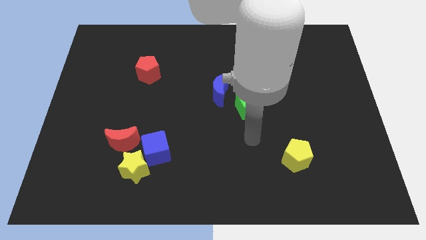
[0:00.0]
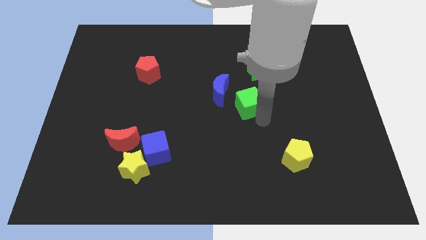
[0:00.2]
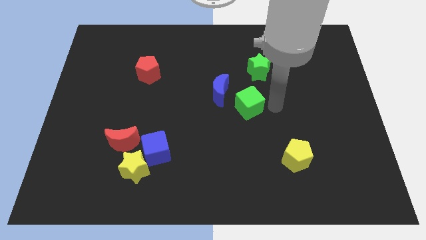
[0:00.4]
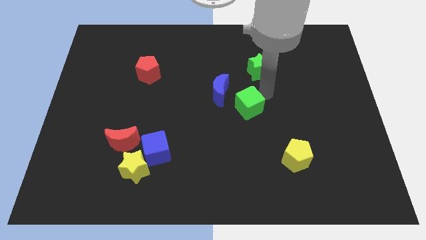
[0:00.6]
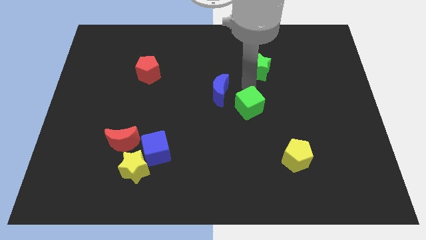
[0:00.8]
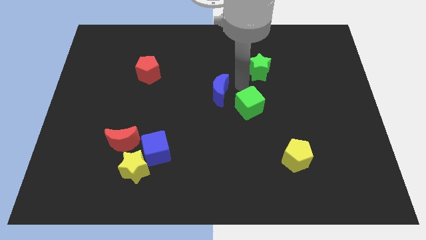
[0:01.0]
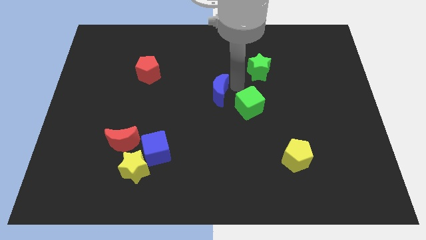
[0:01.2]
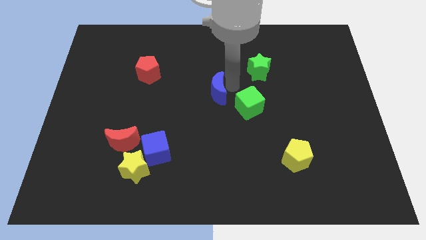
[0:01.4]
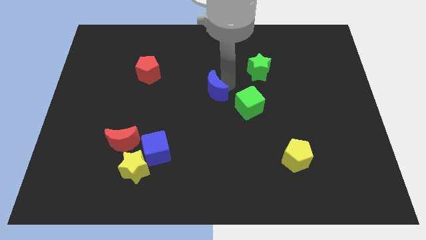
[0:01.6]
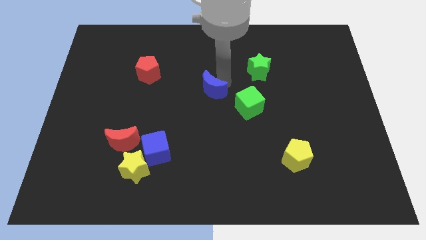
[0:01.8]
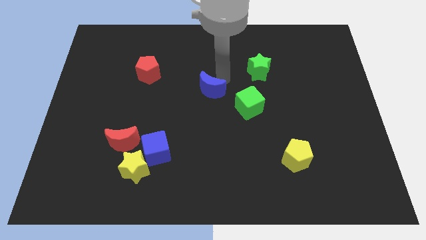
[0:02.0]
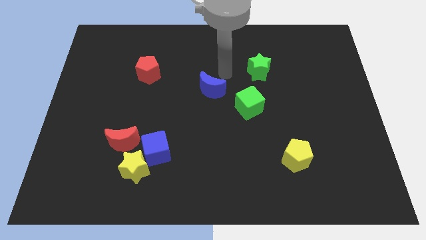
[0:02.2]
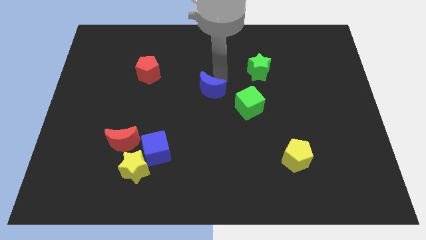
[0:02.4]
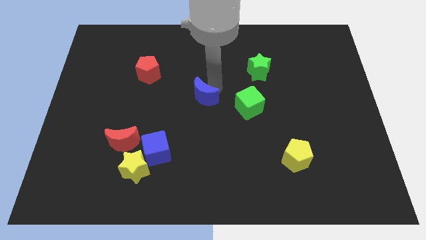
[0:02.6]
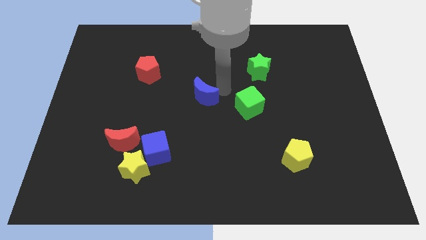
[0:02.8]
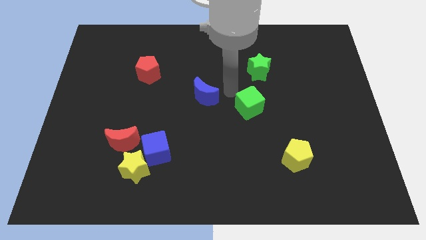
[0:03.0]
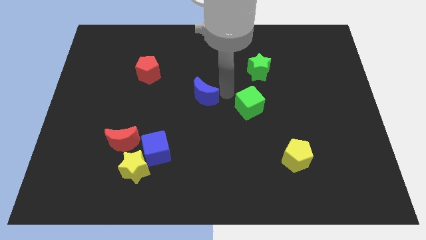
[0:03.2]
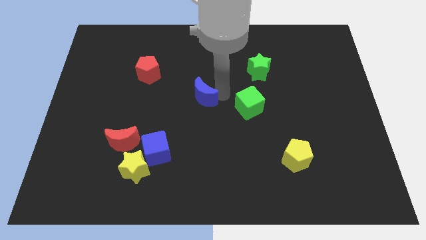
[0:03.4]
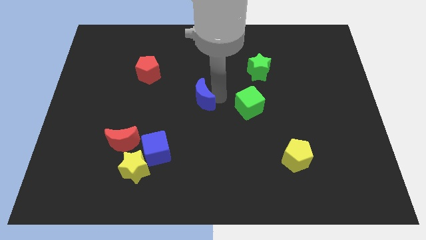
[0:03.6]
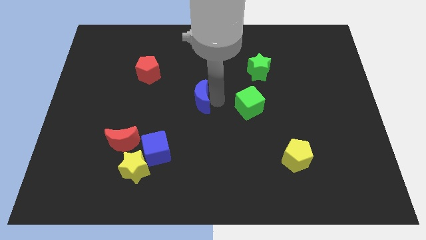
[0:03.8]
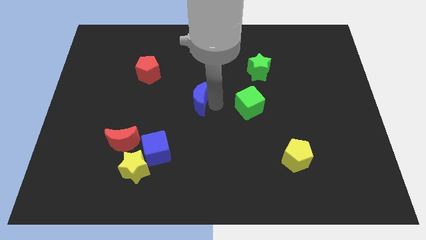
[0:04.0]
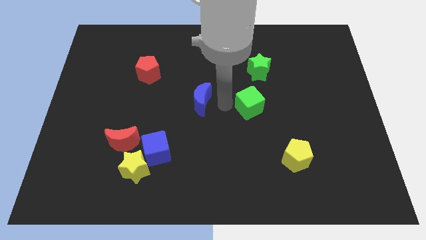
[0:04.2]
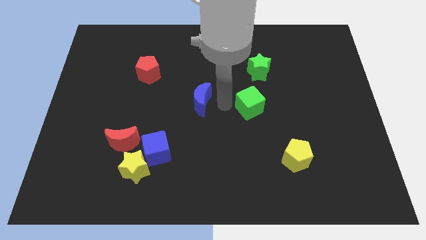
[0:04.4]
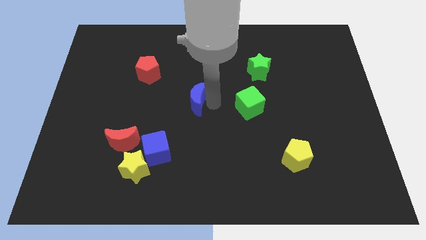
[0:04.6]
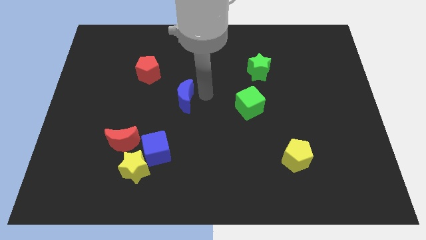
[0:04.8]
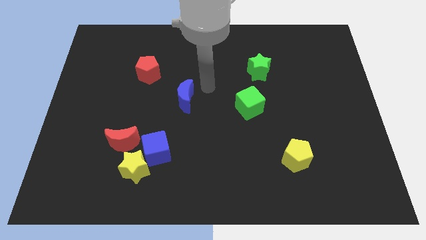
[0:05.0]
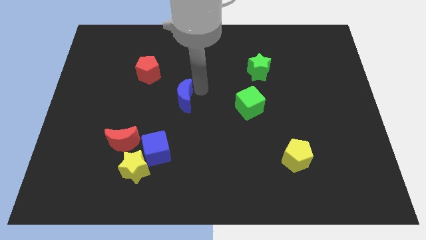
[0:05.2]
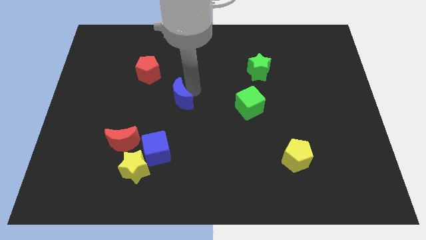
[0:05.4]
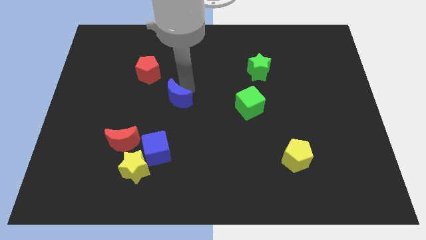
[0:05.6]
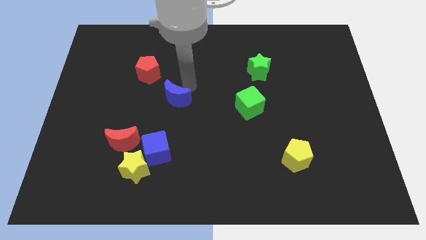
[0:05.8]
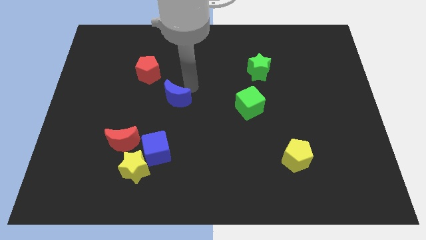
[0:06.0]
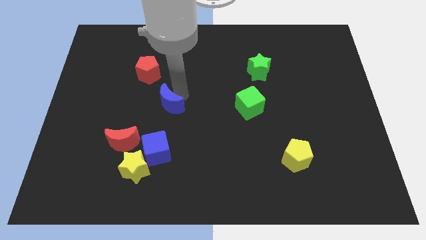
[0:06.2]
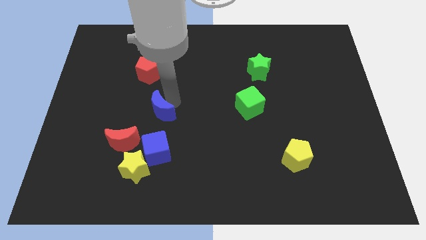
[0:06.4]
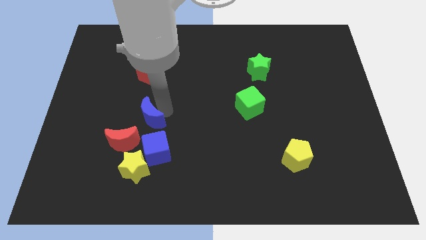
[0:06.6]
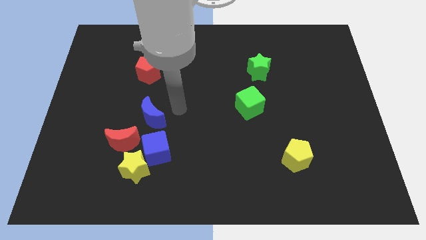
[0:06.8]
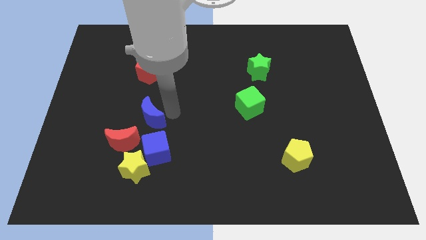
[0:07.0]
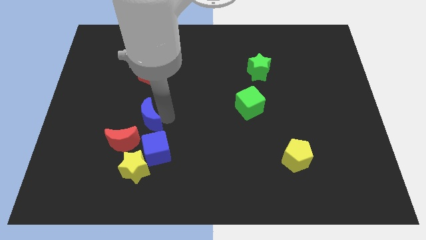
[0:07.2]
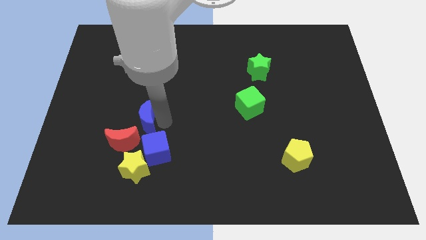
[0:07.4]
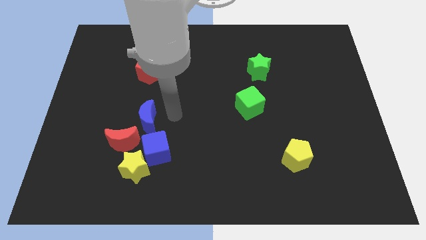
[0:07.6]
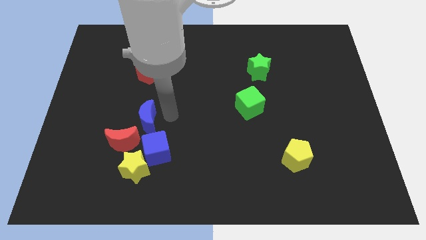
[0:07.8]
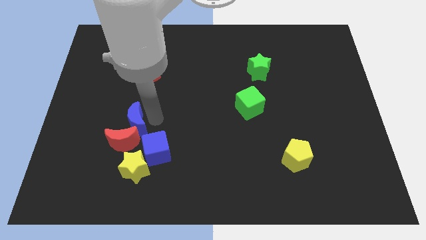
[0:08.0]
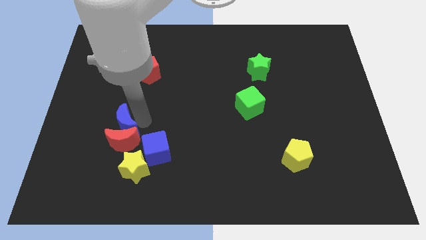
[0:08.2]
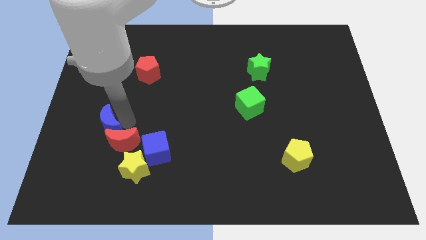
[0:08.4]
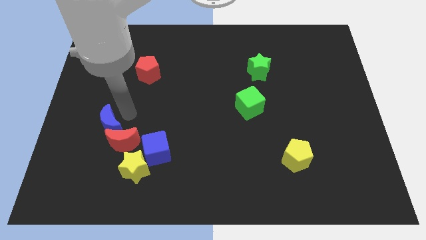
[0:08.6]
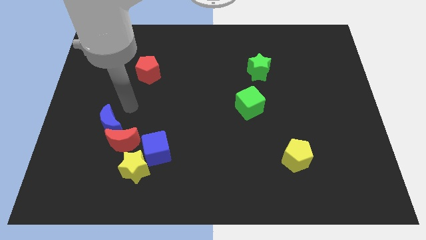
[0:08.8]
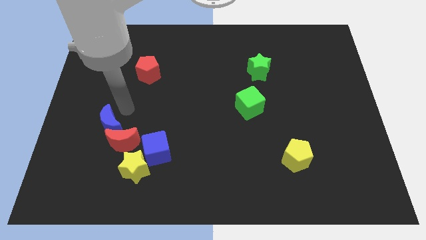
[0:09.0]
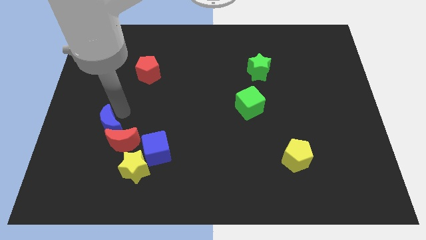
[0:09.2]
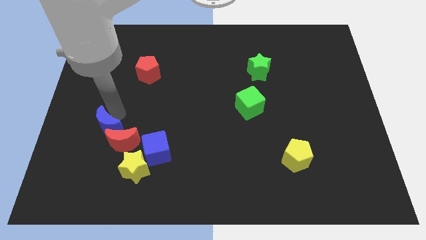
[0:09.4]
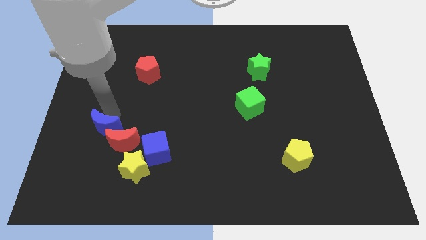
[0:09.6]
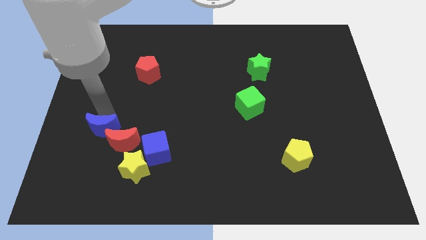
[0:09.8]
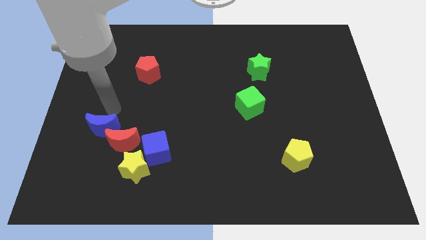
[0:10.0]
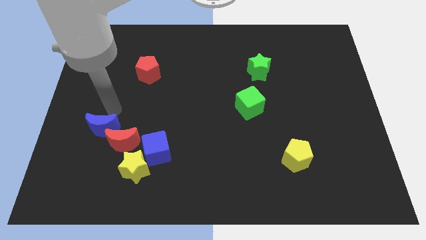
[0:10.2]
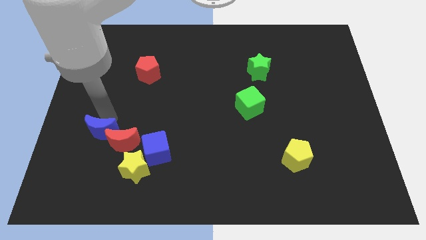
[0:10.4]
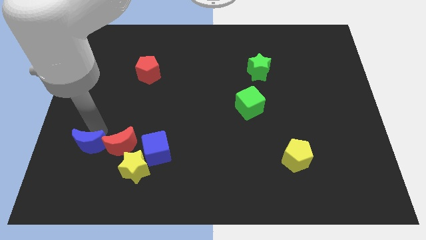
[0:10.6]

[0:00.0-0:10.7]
push the blue moon to the bottom left of the red moon

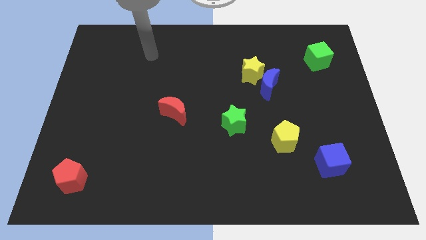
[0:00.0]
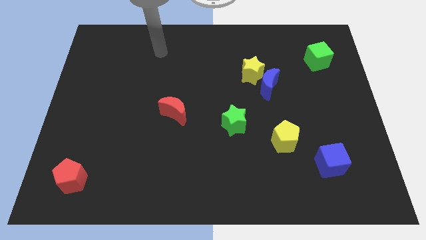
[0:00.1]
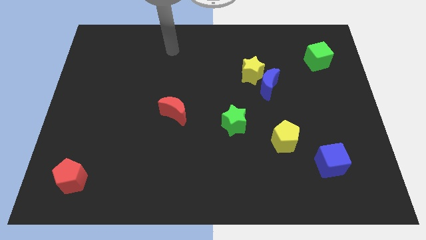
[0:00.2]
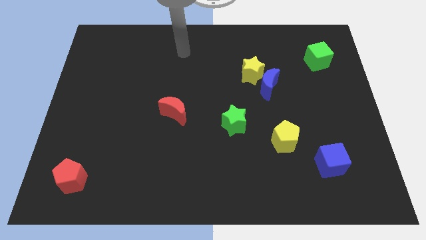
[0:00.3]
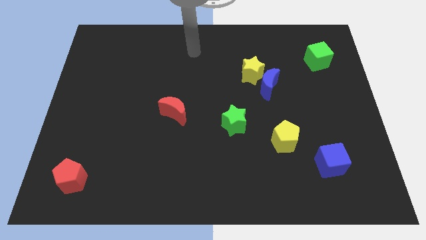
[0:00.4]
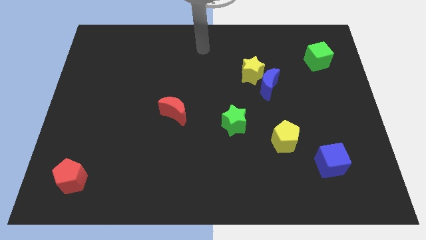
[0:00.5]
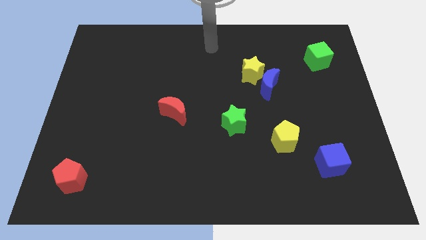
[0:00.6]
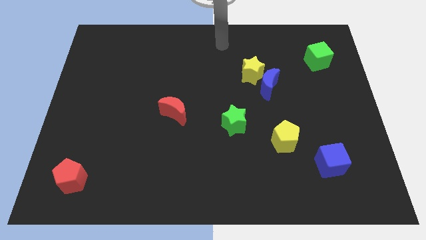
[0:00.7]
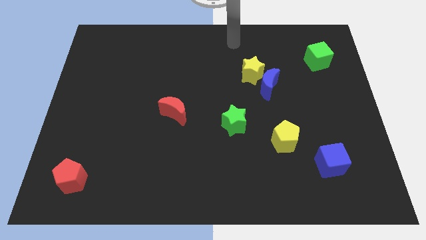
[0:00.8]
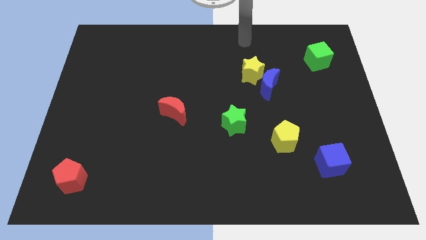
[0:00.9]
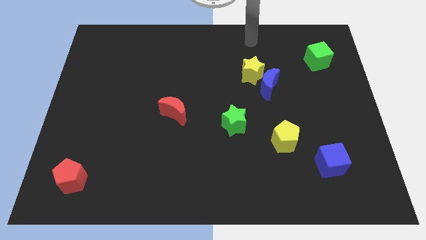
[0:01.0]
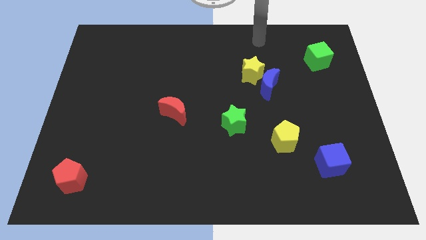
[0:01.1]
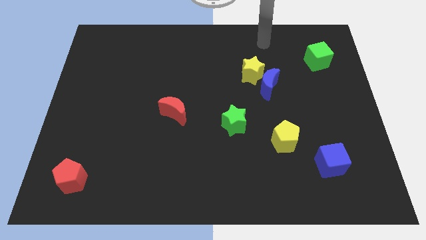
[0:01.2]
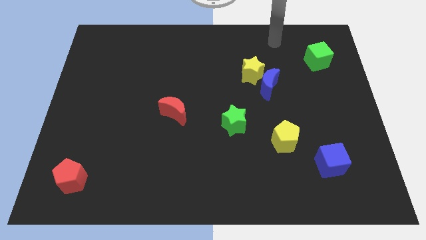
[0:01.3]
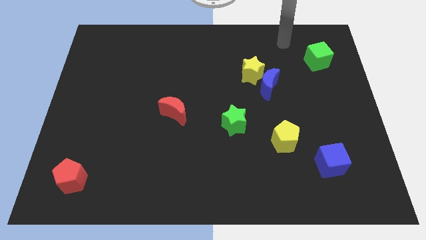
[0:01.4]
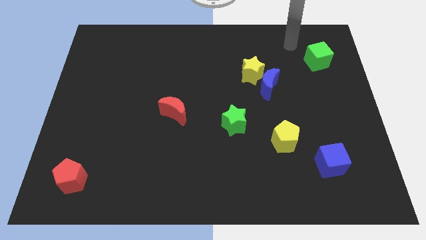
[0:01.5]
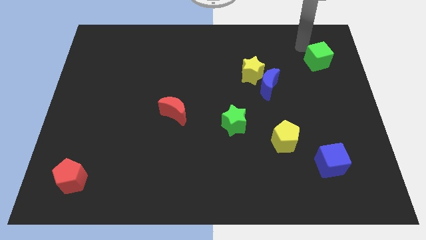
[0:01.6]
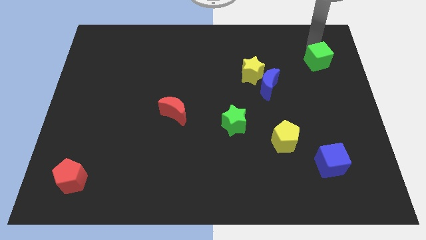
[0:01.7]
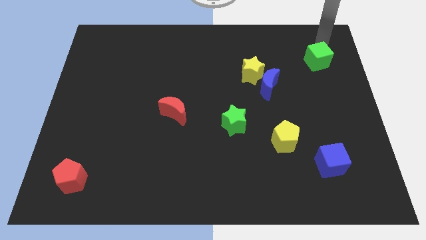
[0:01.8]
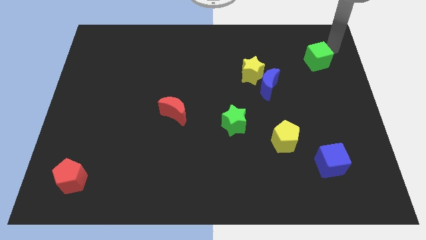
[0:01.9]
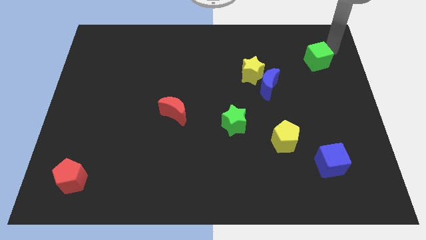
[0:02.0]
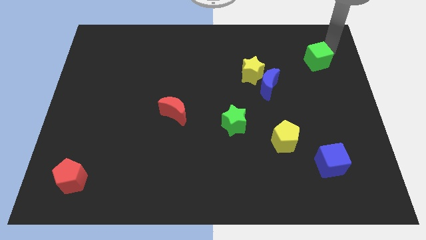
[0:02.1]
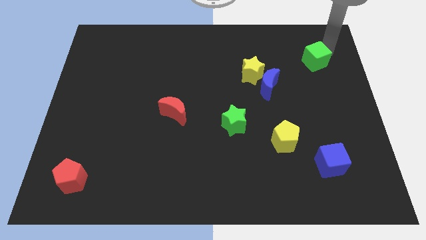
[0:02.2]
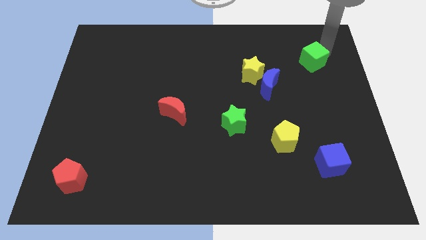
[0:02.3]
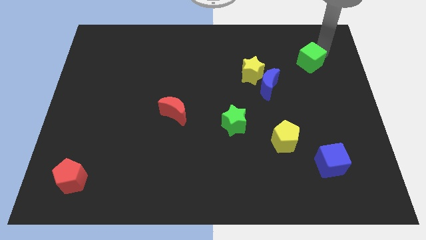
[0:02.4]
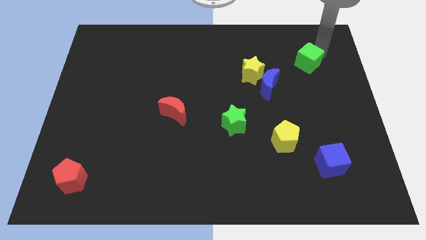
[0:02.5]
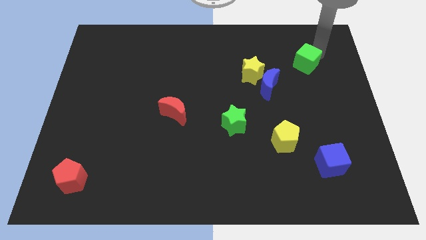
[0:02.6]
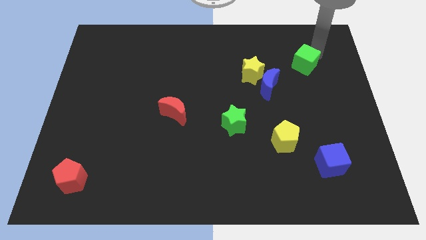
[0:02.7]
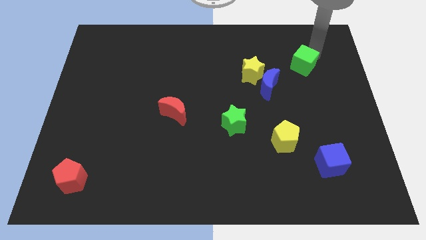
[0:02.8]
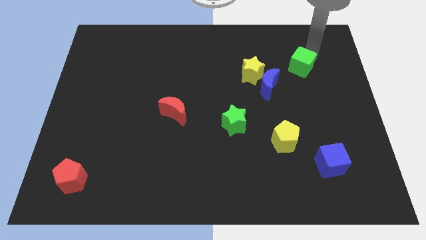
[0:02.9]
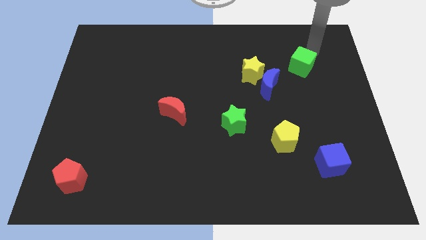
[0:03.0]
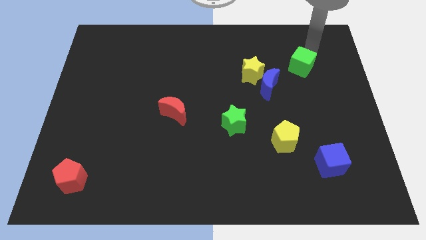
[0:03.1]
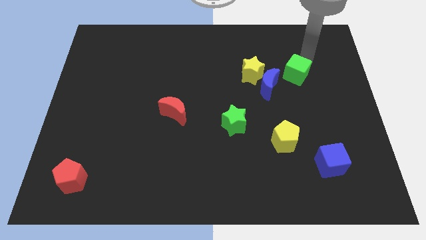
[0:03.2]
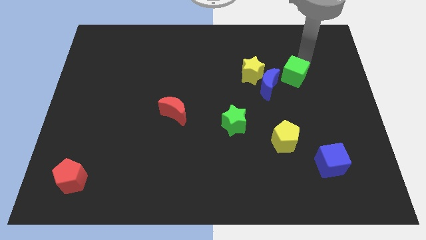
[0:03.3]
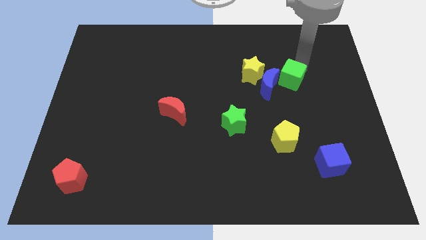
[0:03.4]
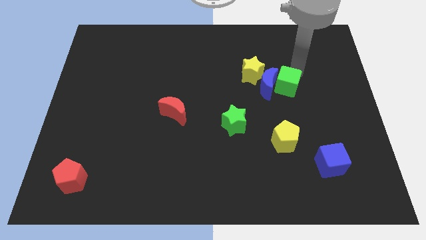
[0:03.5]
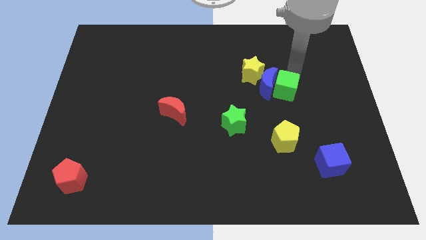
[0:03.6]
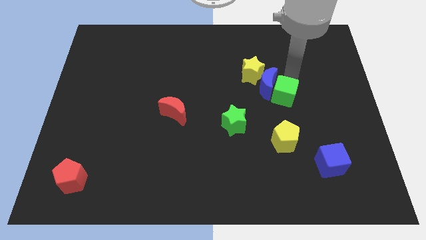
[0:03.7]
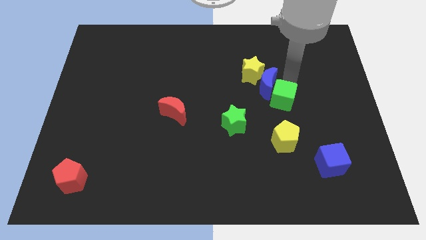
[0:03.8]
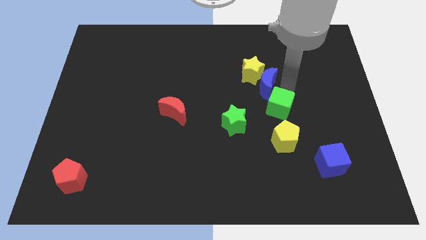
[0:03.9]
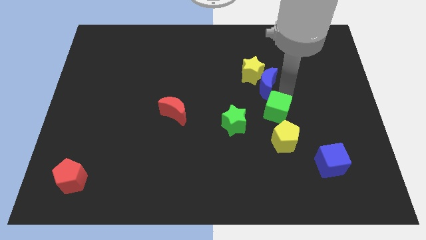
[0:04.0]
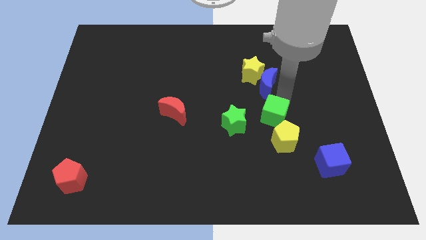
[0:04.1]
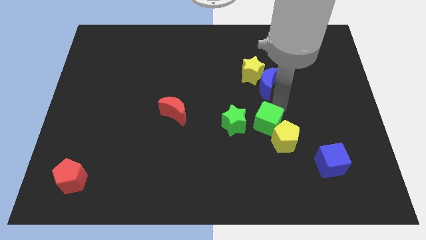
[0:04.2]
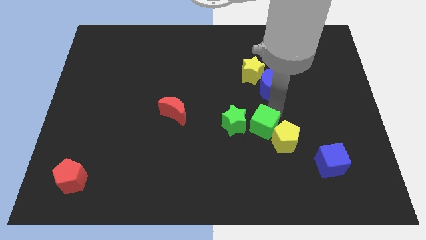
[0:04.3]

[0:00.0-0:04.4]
put the green cube diagonally down and to the right of the green star
